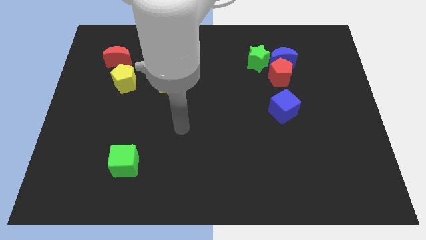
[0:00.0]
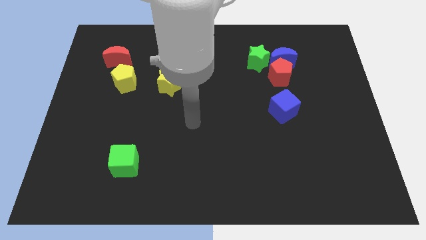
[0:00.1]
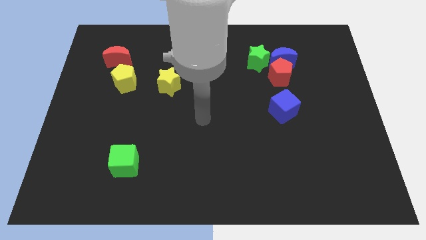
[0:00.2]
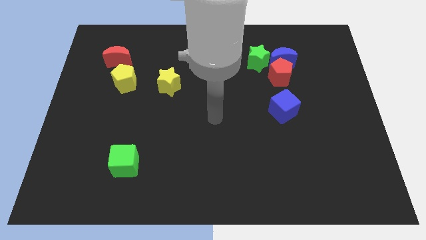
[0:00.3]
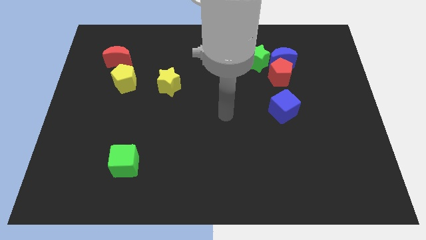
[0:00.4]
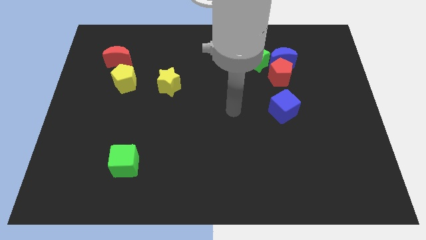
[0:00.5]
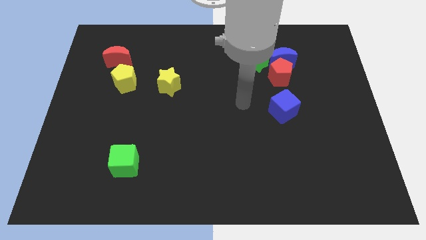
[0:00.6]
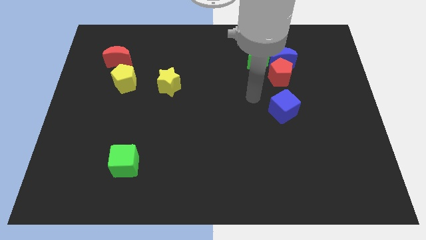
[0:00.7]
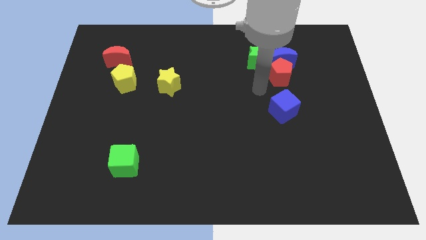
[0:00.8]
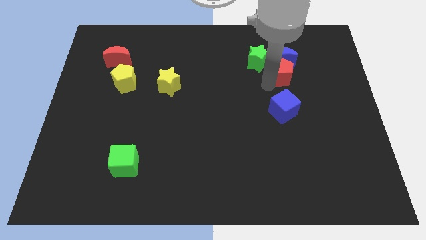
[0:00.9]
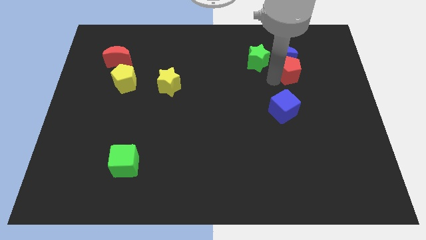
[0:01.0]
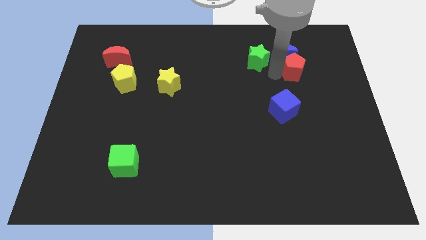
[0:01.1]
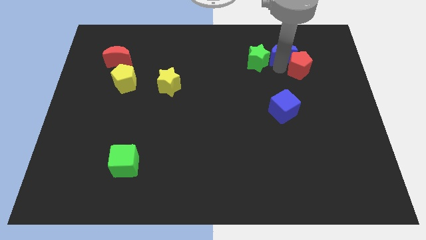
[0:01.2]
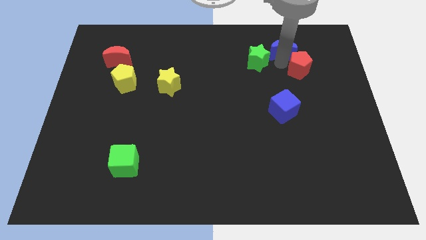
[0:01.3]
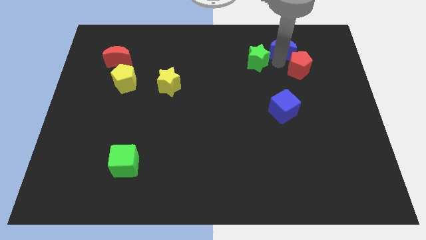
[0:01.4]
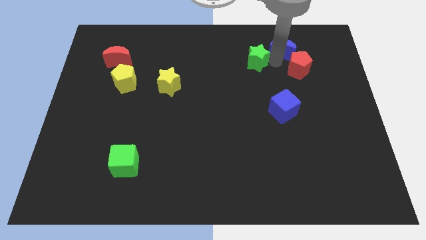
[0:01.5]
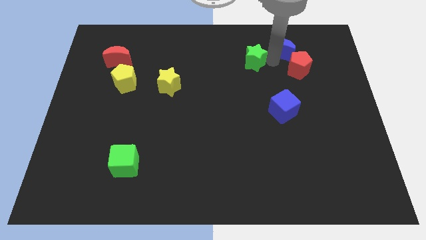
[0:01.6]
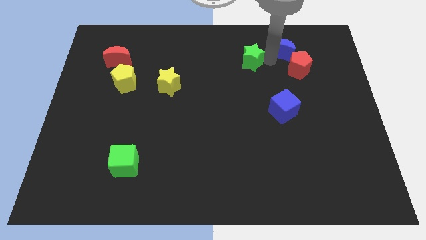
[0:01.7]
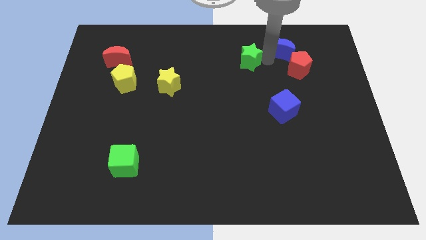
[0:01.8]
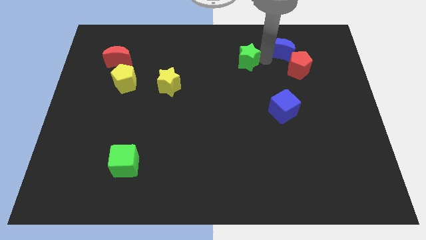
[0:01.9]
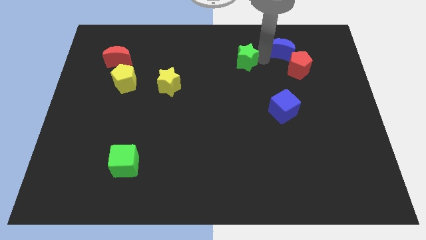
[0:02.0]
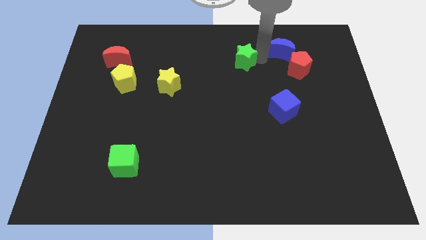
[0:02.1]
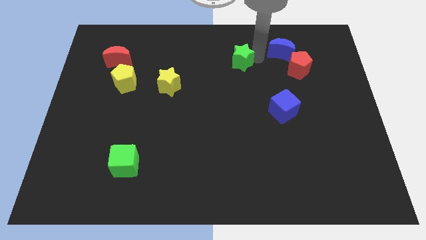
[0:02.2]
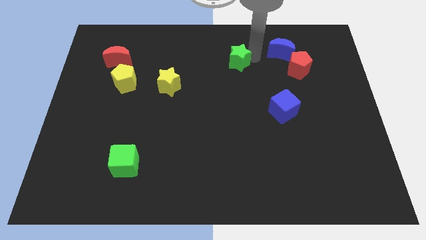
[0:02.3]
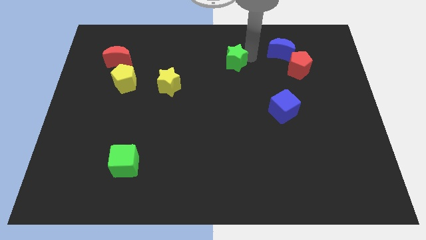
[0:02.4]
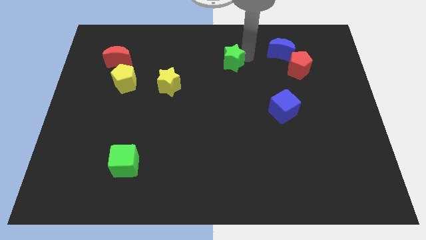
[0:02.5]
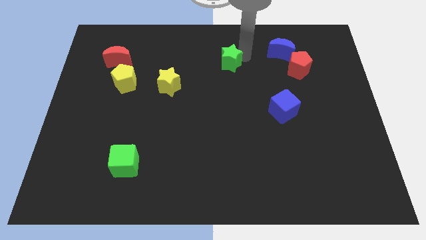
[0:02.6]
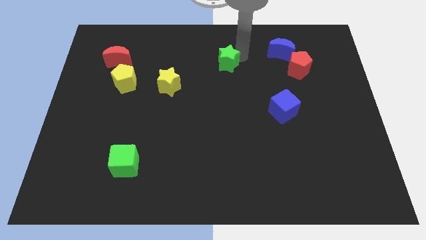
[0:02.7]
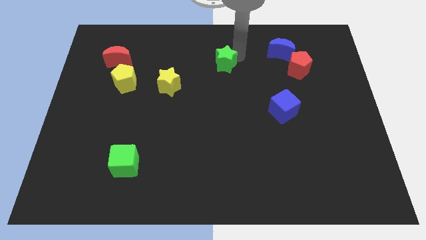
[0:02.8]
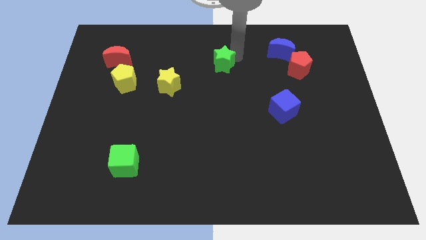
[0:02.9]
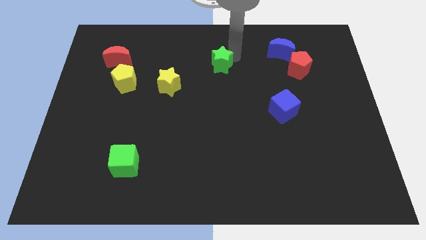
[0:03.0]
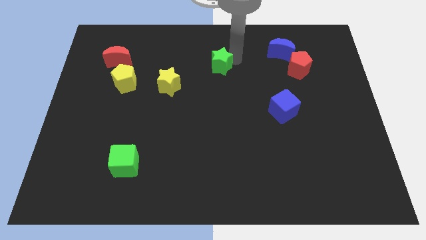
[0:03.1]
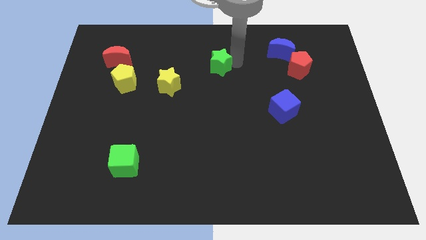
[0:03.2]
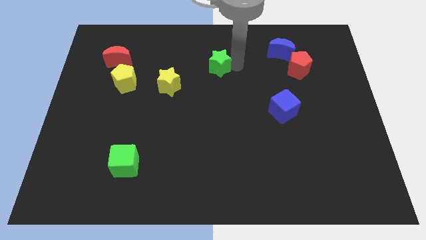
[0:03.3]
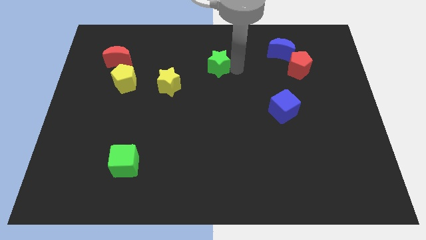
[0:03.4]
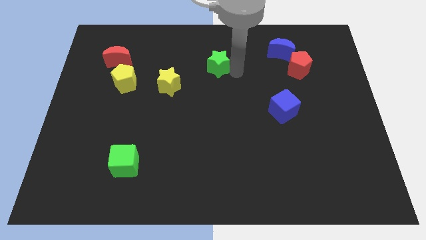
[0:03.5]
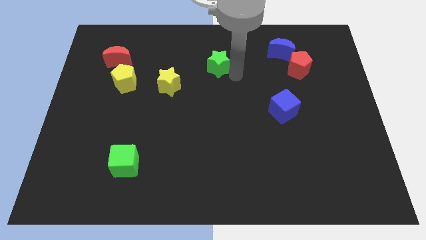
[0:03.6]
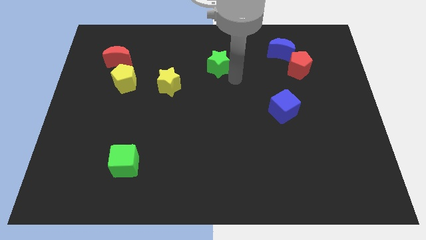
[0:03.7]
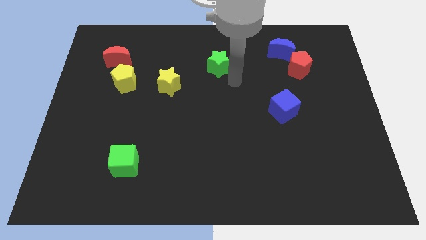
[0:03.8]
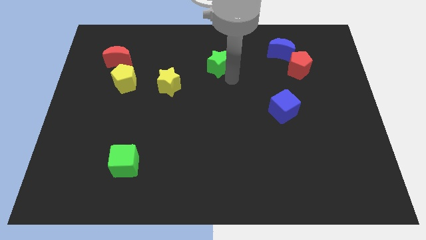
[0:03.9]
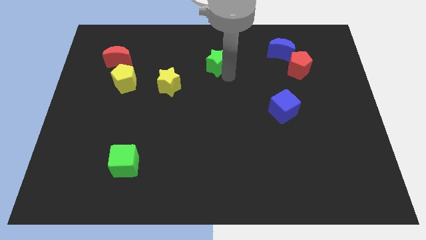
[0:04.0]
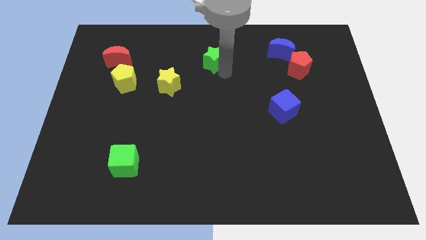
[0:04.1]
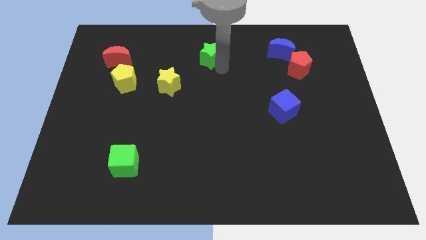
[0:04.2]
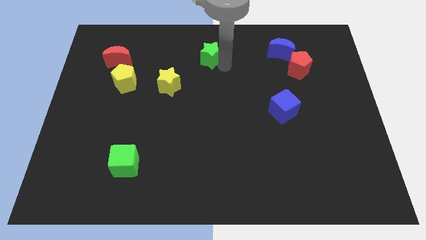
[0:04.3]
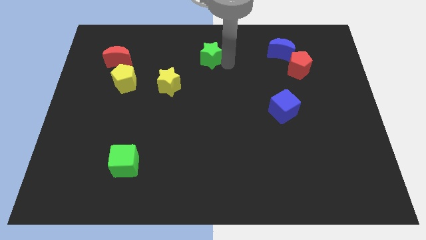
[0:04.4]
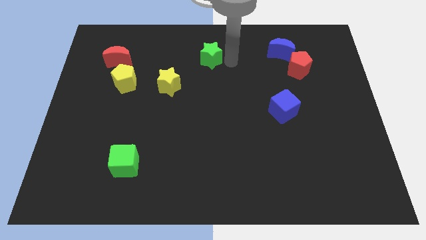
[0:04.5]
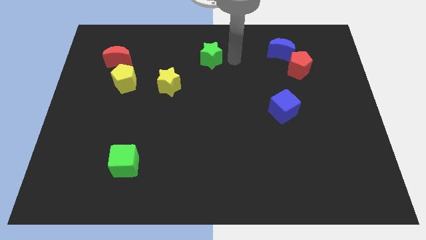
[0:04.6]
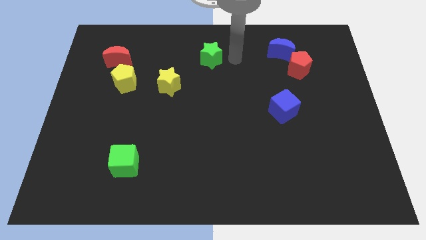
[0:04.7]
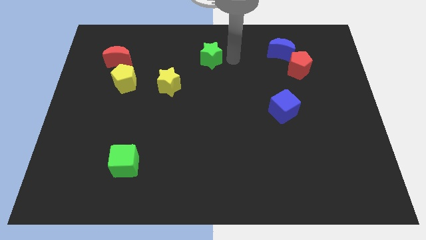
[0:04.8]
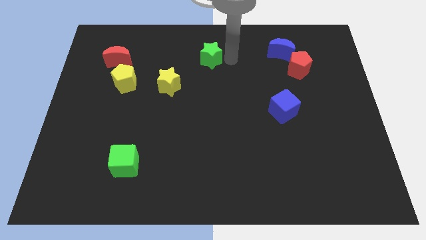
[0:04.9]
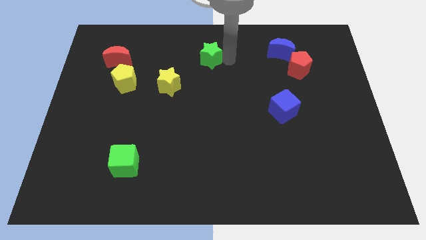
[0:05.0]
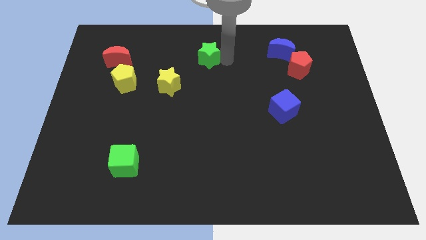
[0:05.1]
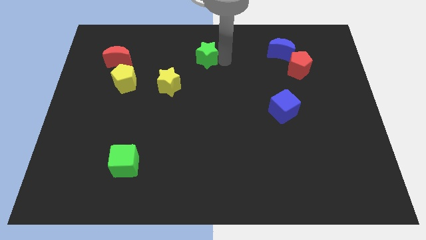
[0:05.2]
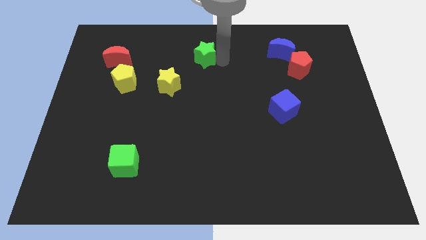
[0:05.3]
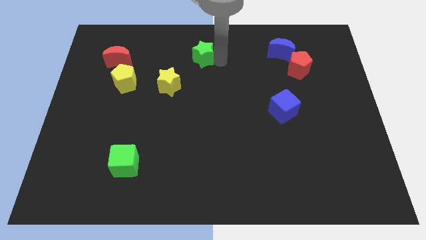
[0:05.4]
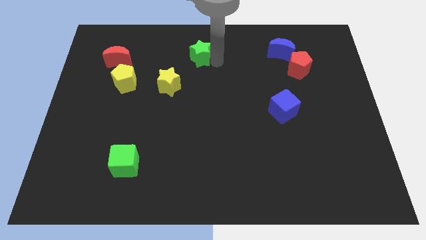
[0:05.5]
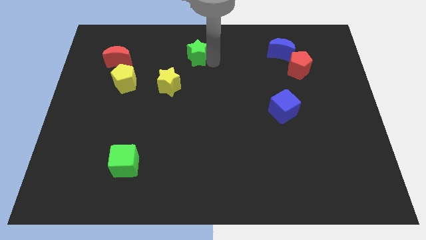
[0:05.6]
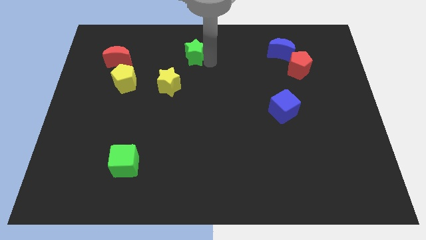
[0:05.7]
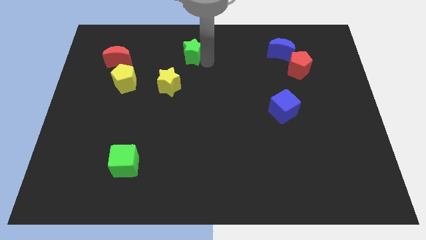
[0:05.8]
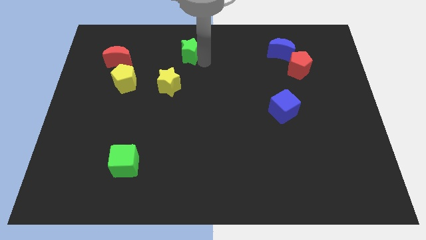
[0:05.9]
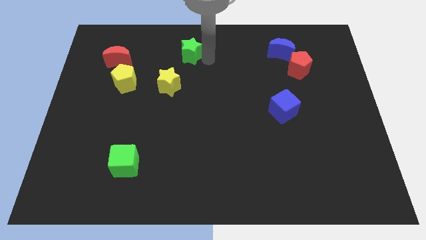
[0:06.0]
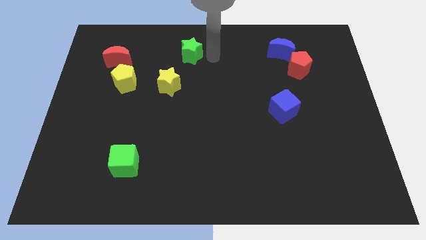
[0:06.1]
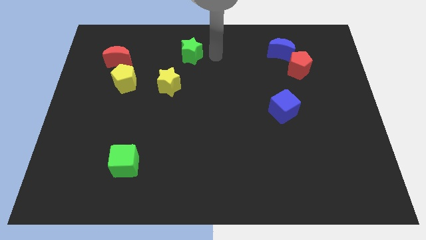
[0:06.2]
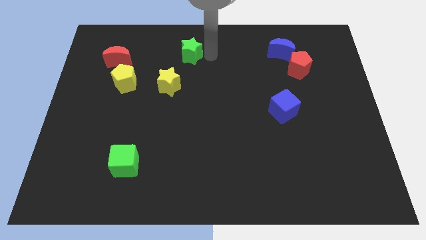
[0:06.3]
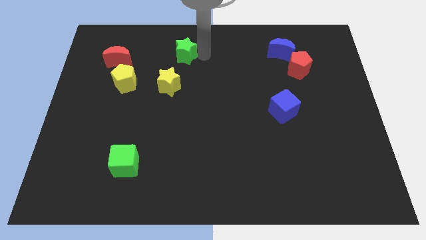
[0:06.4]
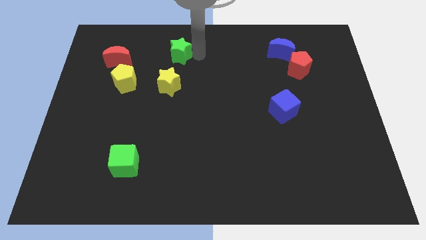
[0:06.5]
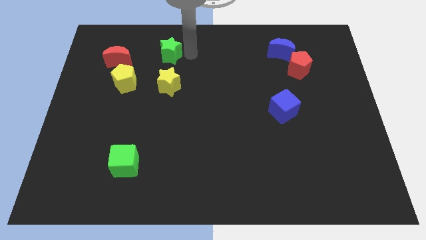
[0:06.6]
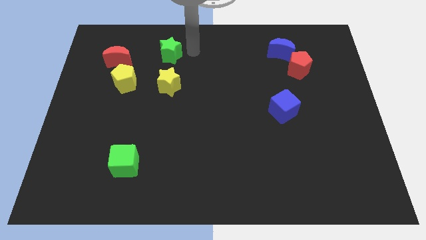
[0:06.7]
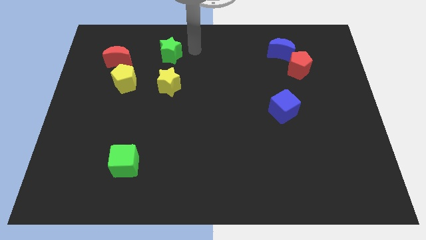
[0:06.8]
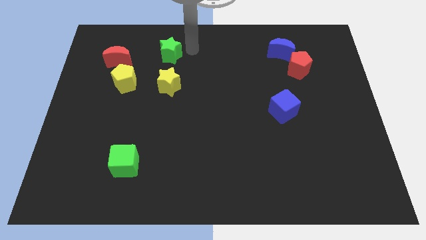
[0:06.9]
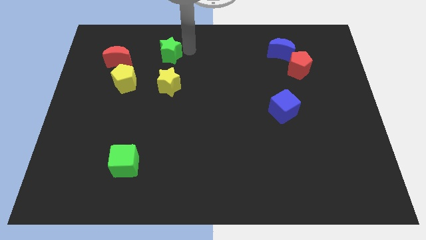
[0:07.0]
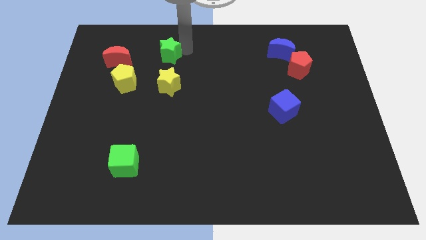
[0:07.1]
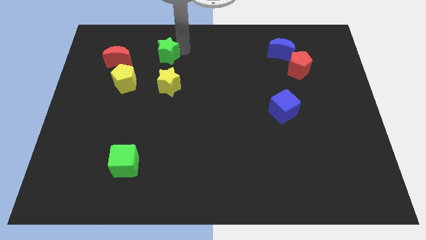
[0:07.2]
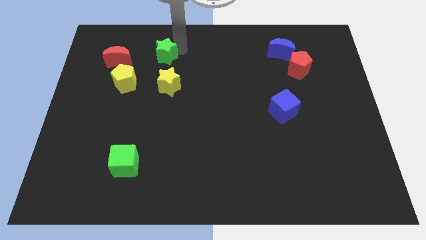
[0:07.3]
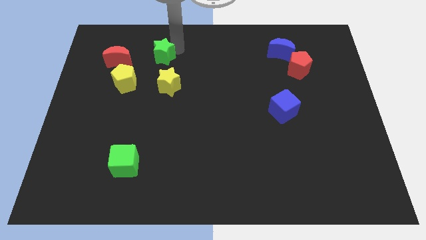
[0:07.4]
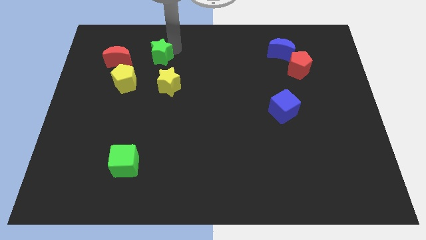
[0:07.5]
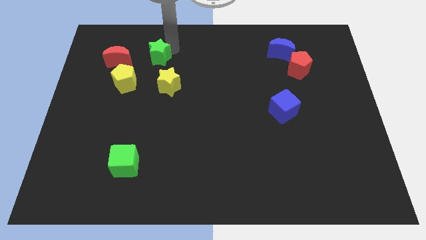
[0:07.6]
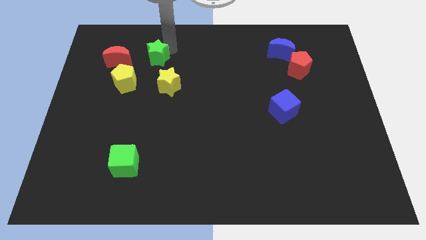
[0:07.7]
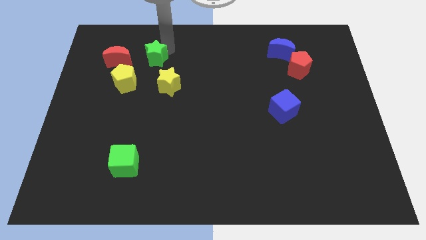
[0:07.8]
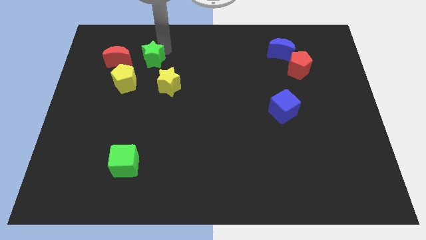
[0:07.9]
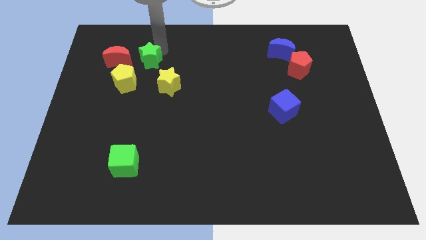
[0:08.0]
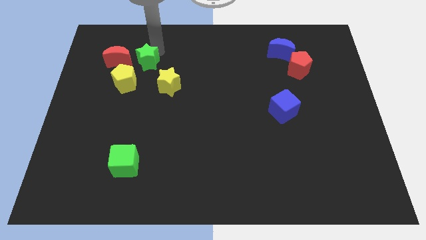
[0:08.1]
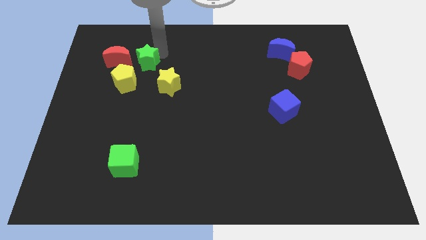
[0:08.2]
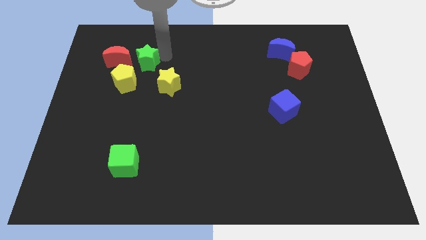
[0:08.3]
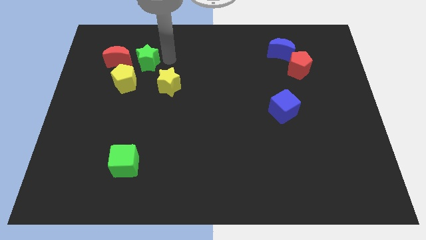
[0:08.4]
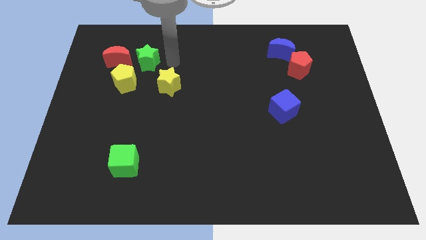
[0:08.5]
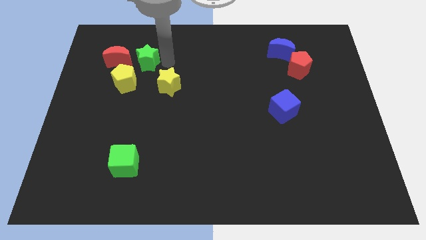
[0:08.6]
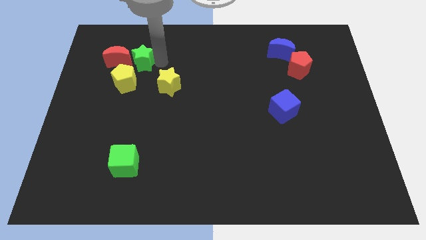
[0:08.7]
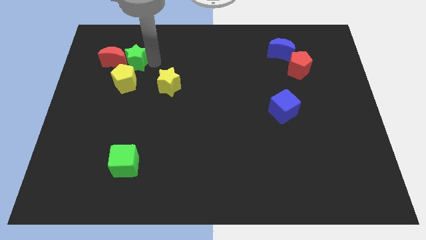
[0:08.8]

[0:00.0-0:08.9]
move the green star towards the red moon
